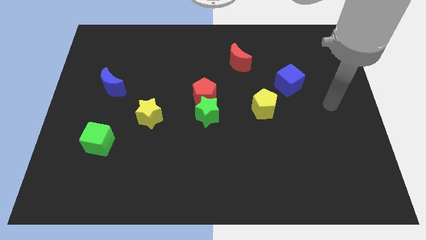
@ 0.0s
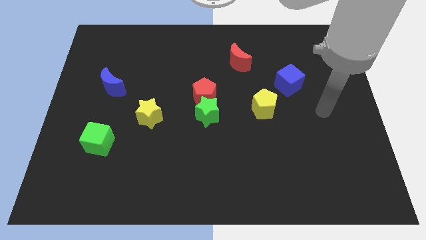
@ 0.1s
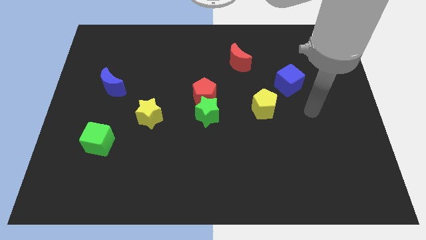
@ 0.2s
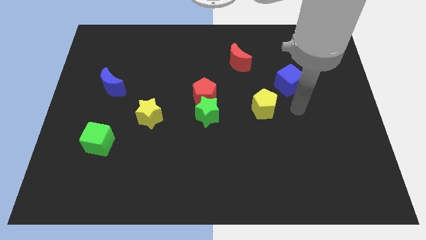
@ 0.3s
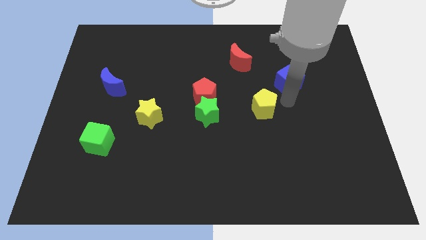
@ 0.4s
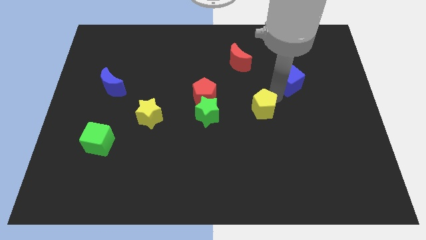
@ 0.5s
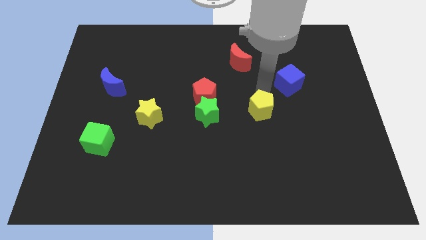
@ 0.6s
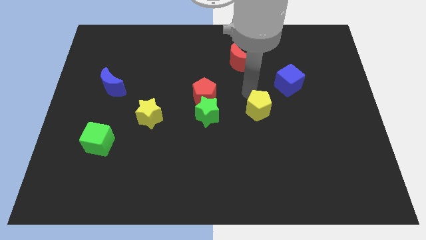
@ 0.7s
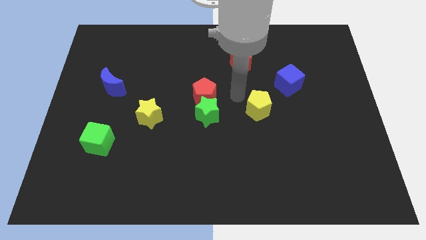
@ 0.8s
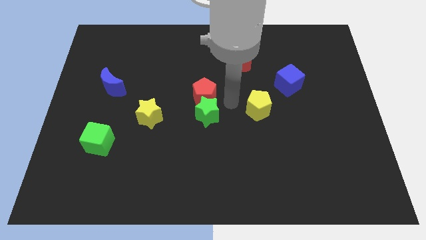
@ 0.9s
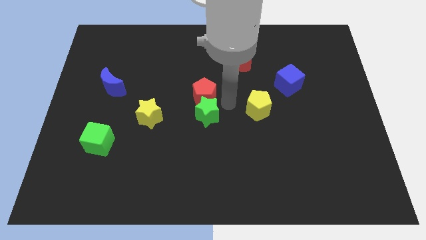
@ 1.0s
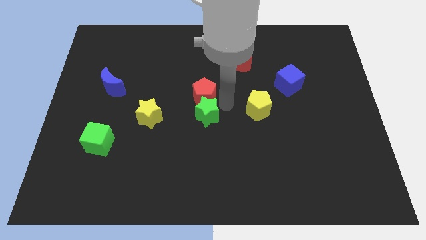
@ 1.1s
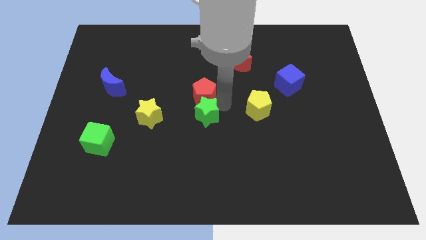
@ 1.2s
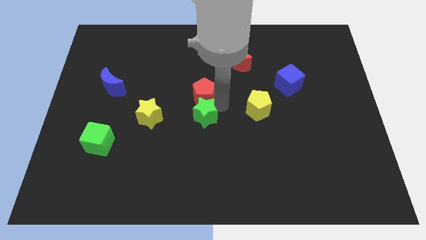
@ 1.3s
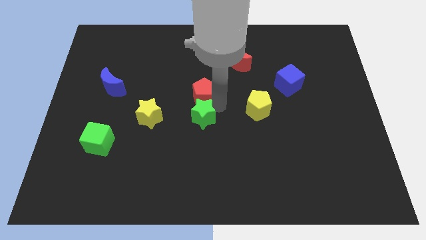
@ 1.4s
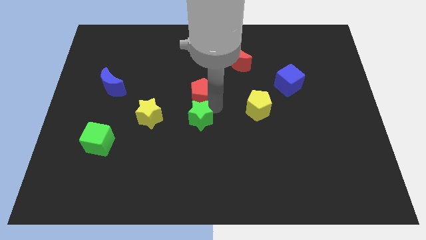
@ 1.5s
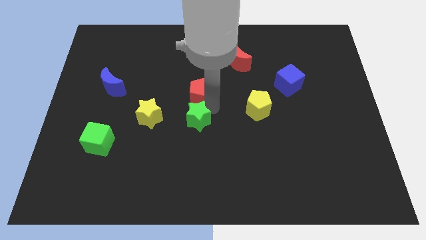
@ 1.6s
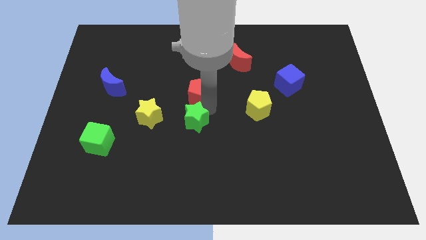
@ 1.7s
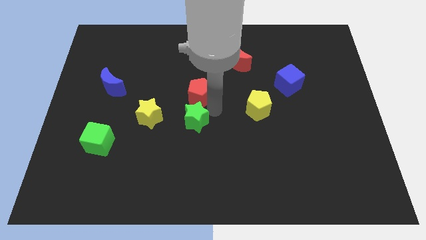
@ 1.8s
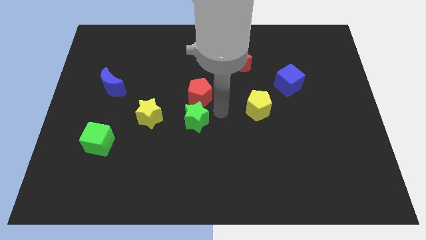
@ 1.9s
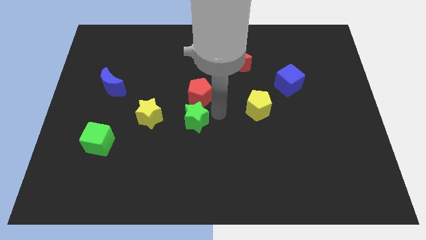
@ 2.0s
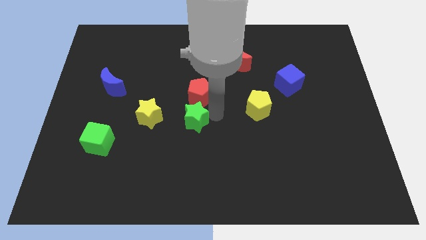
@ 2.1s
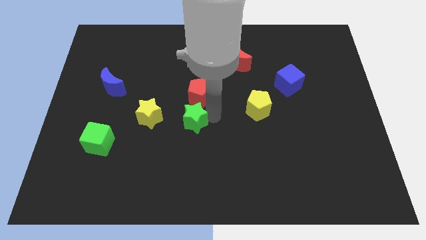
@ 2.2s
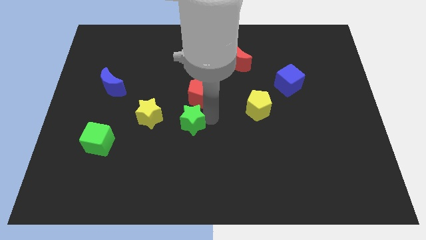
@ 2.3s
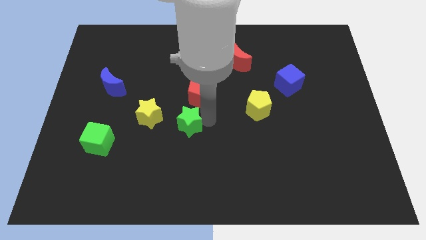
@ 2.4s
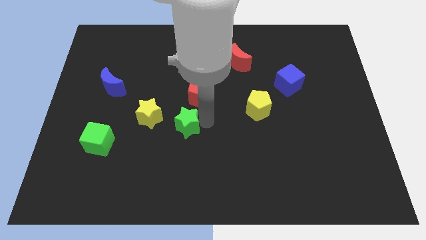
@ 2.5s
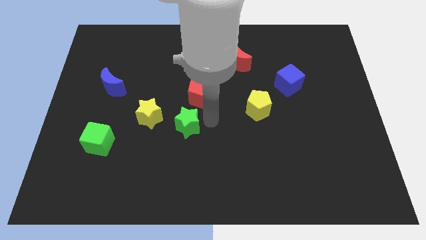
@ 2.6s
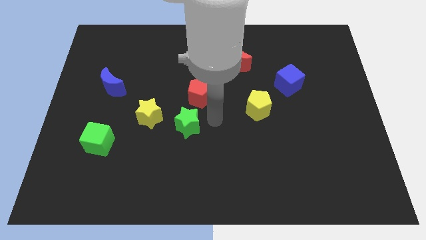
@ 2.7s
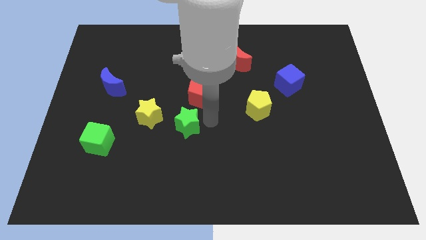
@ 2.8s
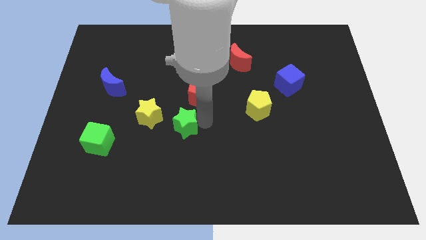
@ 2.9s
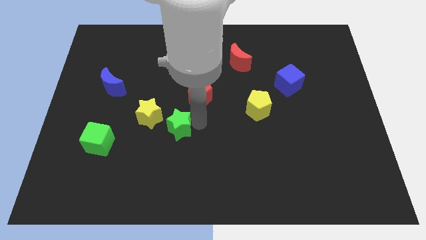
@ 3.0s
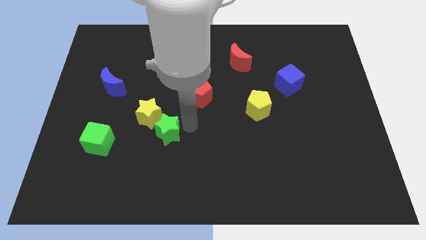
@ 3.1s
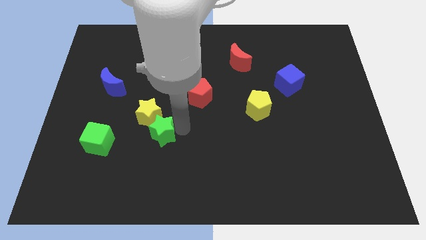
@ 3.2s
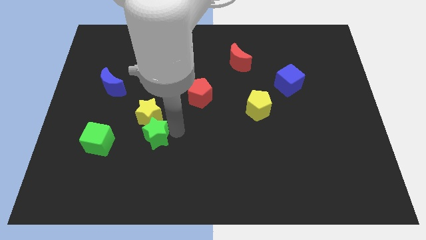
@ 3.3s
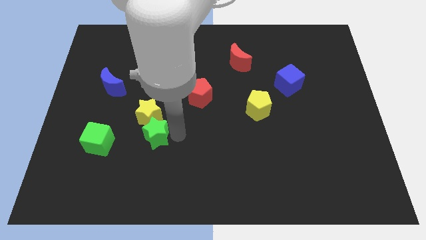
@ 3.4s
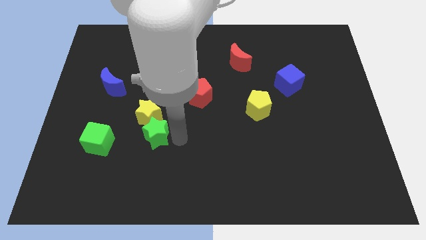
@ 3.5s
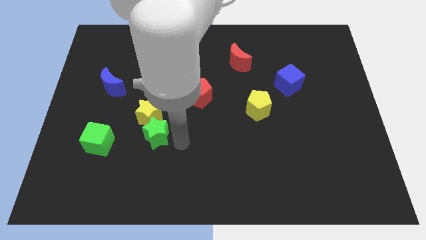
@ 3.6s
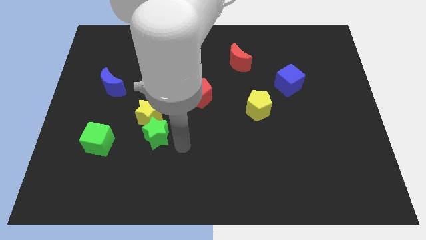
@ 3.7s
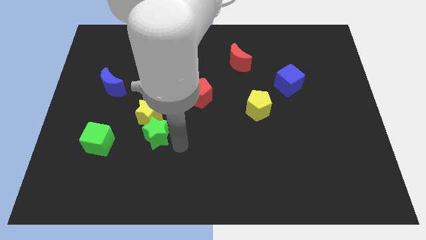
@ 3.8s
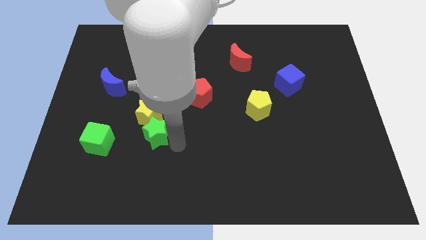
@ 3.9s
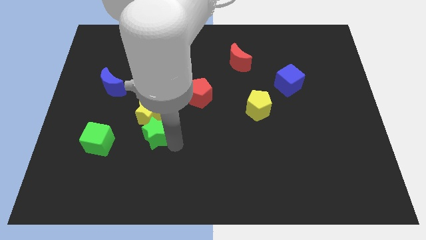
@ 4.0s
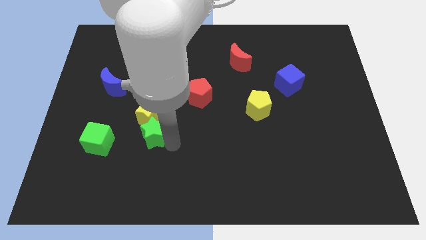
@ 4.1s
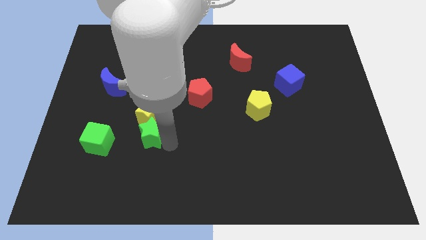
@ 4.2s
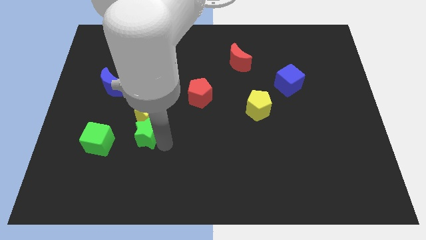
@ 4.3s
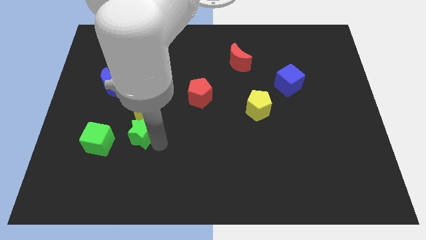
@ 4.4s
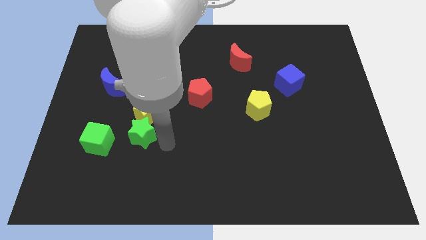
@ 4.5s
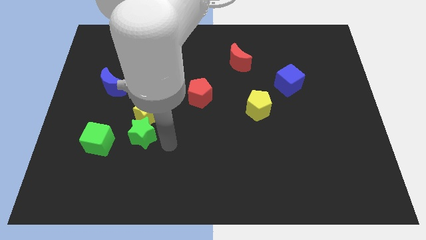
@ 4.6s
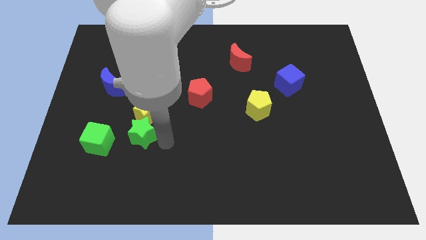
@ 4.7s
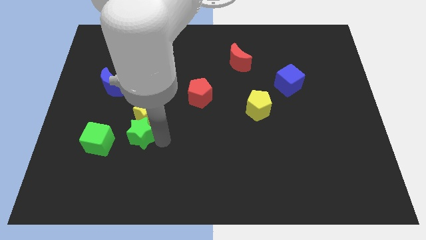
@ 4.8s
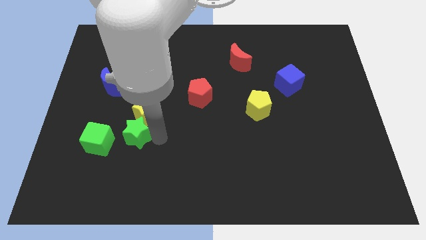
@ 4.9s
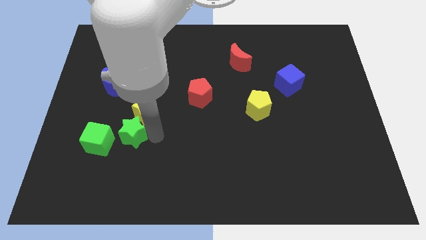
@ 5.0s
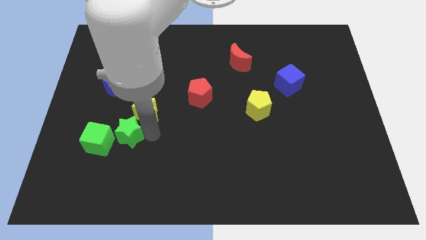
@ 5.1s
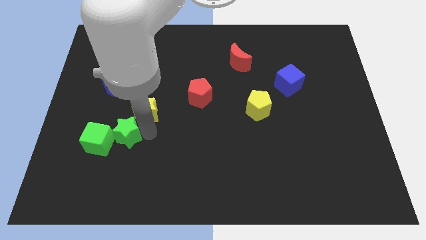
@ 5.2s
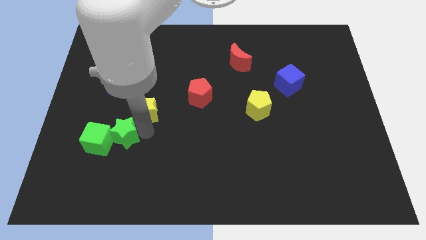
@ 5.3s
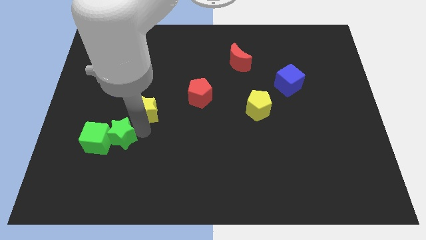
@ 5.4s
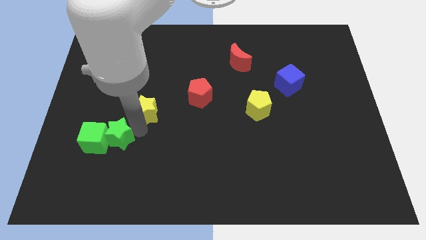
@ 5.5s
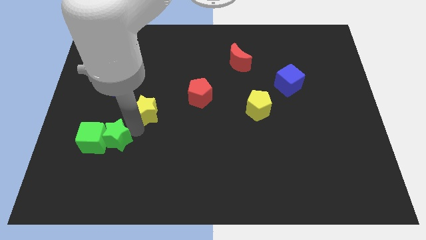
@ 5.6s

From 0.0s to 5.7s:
slide the green star below the blue moon

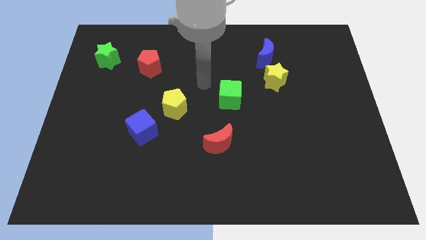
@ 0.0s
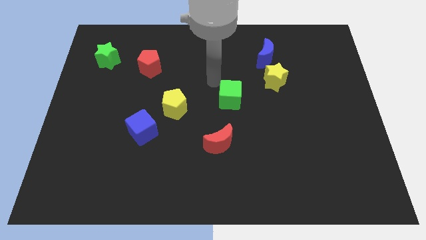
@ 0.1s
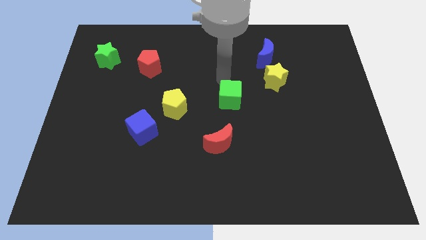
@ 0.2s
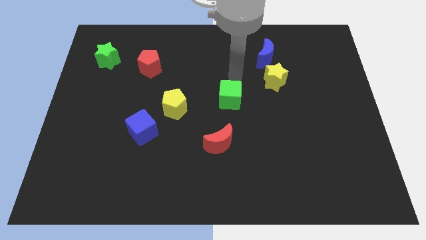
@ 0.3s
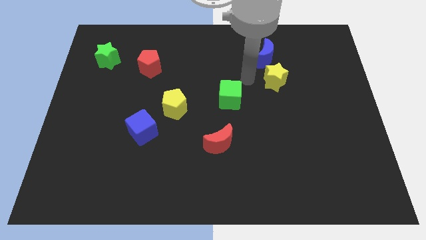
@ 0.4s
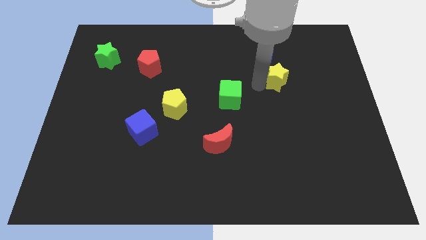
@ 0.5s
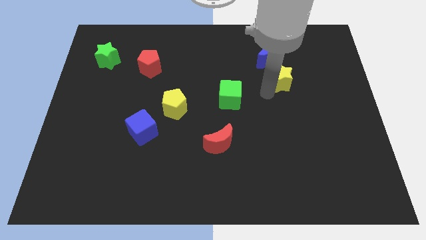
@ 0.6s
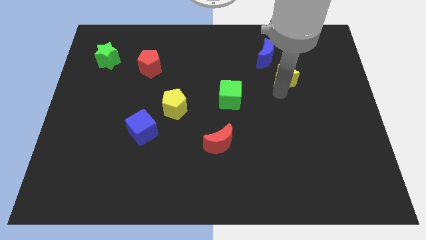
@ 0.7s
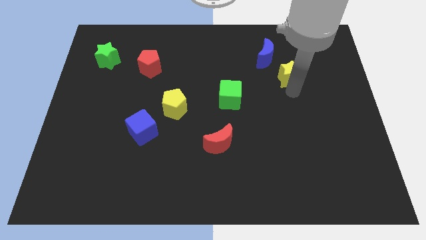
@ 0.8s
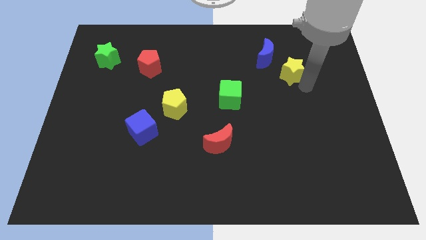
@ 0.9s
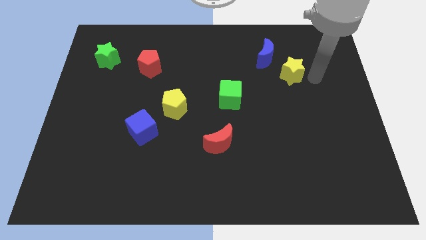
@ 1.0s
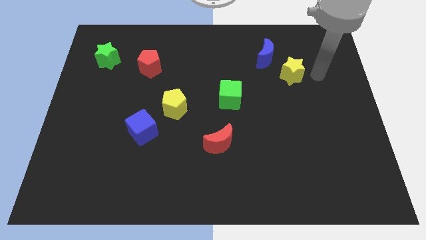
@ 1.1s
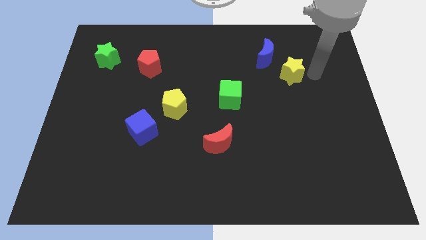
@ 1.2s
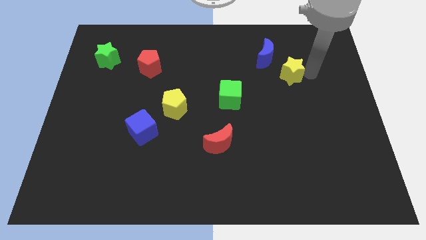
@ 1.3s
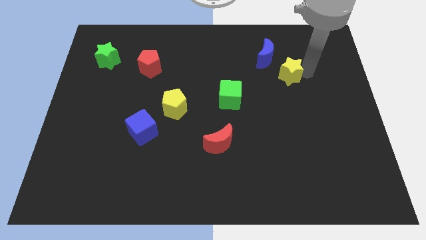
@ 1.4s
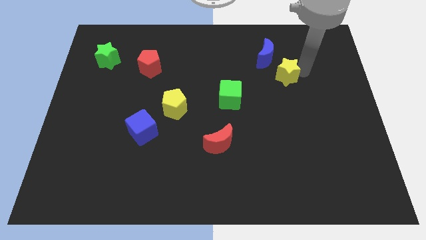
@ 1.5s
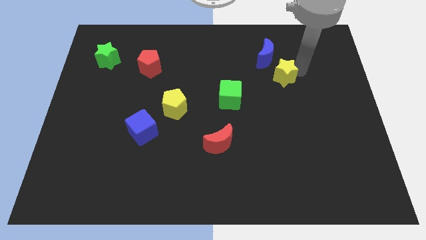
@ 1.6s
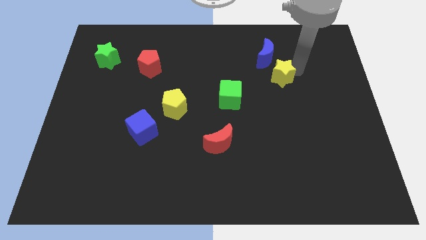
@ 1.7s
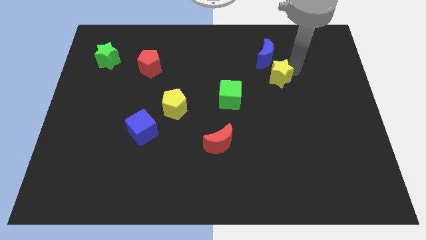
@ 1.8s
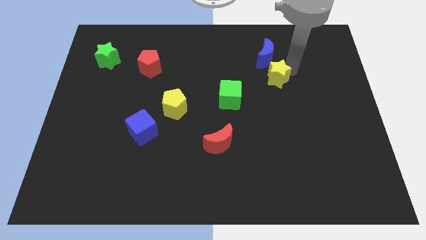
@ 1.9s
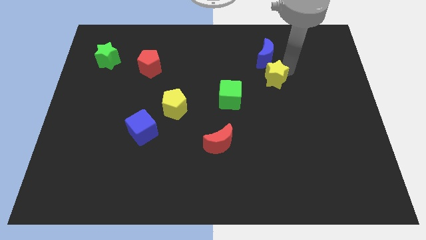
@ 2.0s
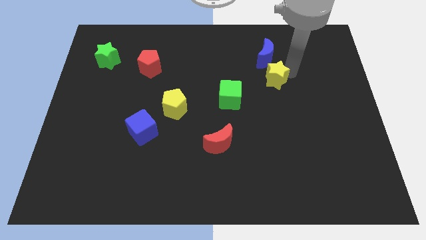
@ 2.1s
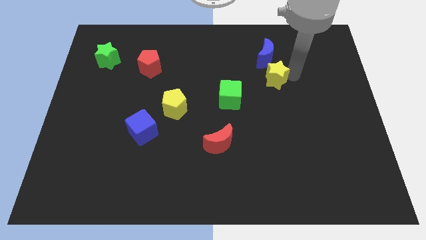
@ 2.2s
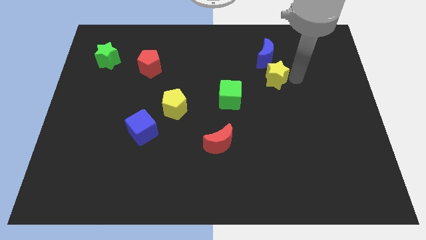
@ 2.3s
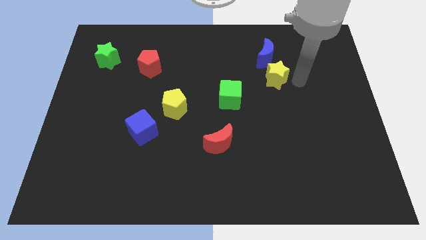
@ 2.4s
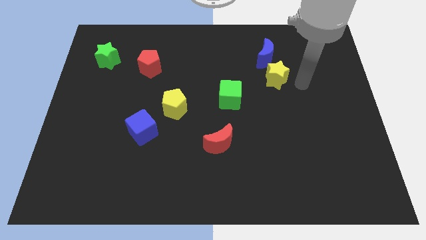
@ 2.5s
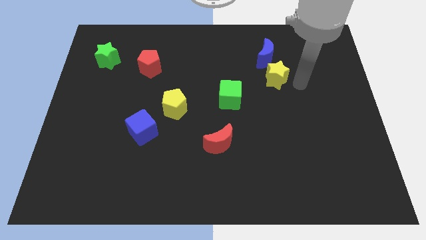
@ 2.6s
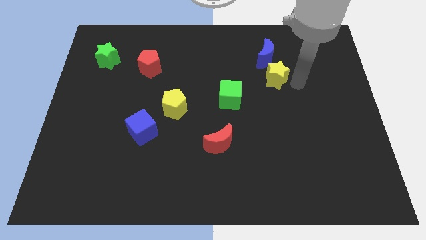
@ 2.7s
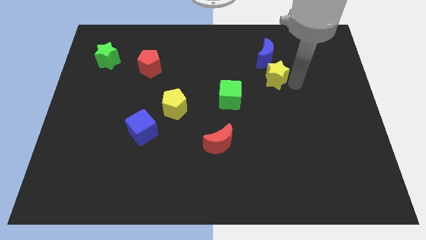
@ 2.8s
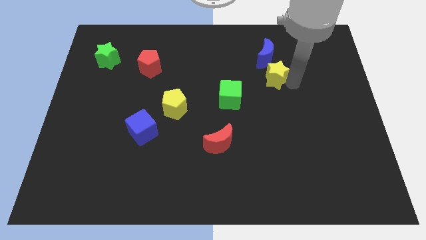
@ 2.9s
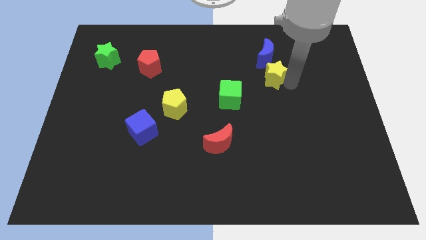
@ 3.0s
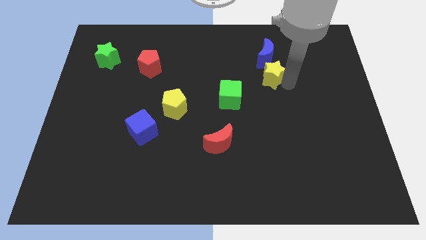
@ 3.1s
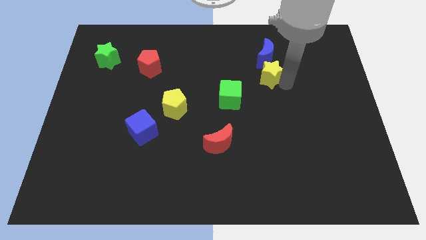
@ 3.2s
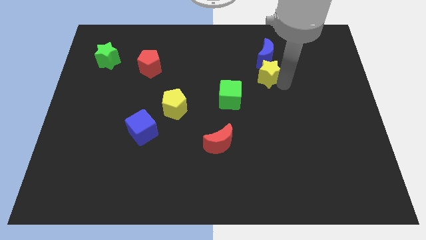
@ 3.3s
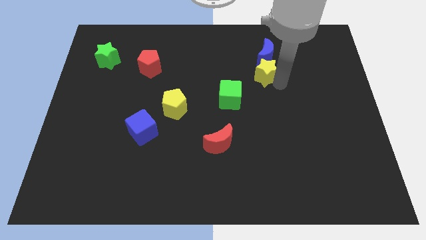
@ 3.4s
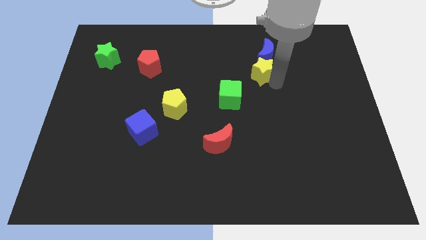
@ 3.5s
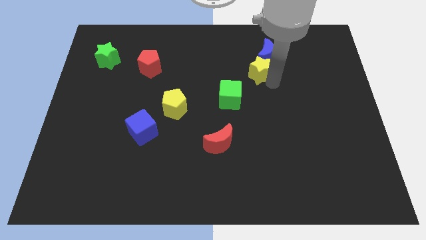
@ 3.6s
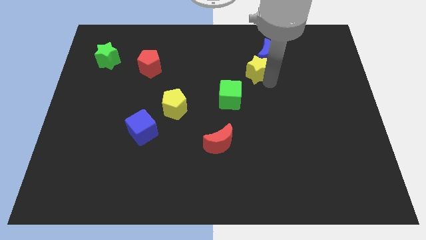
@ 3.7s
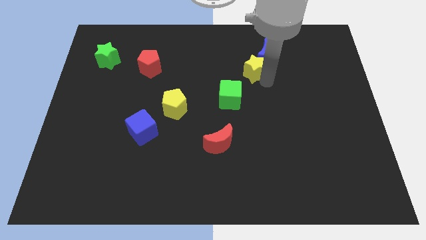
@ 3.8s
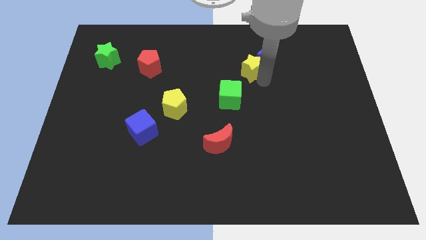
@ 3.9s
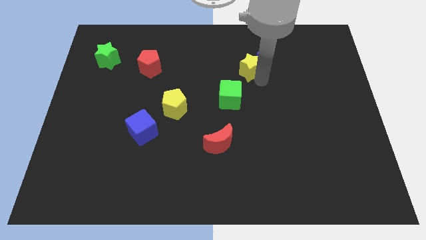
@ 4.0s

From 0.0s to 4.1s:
slide the yellow star just left of the blue moon
